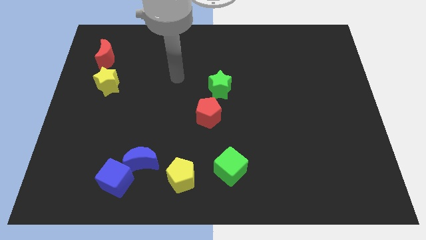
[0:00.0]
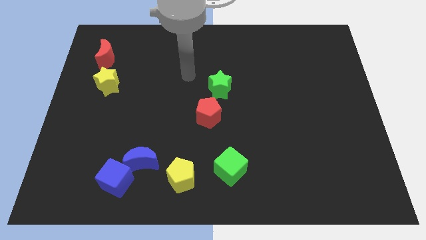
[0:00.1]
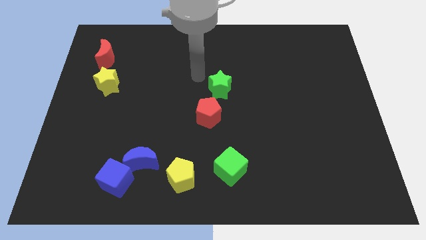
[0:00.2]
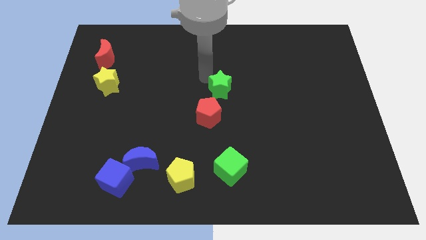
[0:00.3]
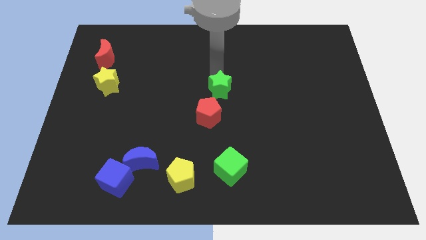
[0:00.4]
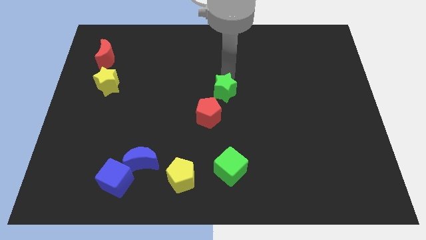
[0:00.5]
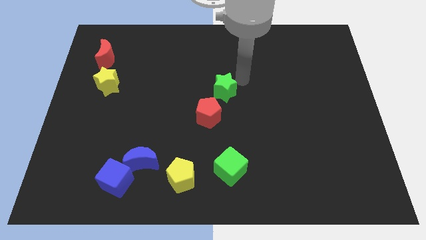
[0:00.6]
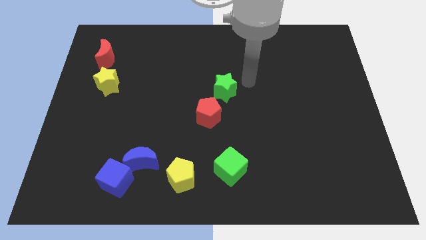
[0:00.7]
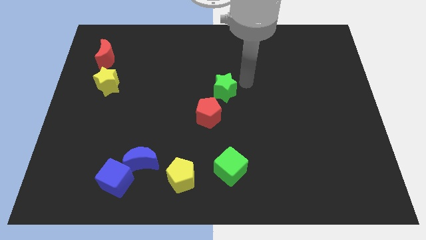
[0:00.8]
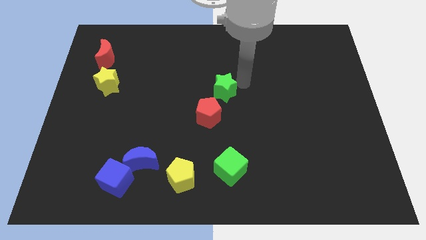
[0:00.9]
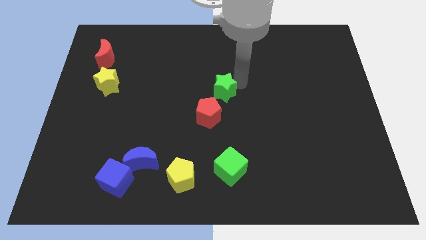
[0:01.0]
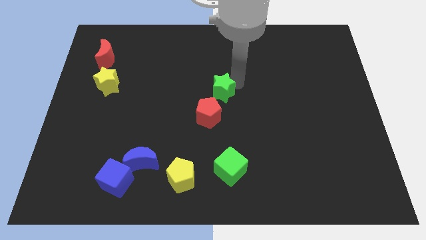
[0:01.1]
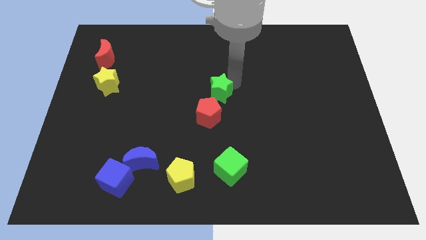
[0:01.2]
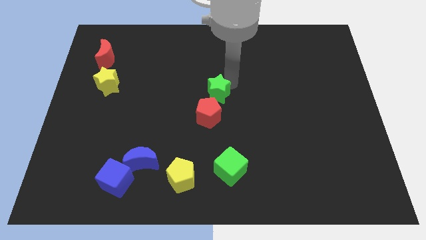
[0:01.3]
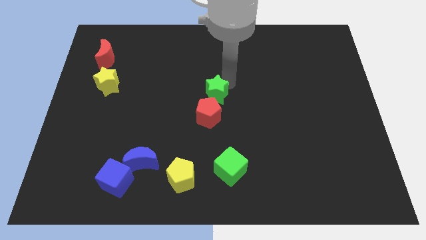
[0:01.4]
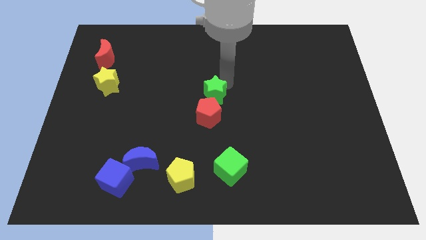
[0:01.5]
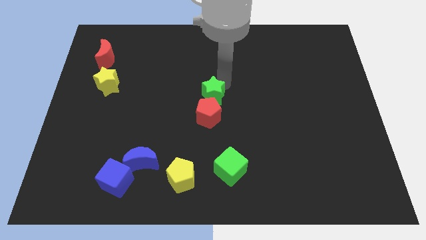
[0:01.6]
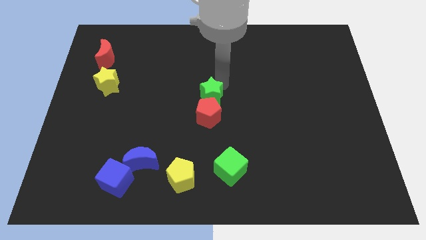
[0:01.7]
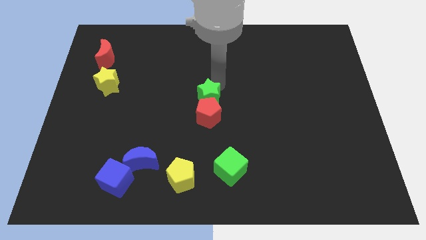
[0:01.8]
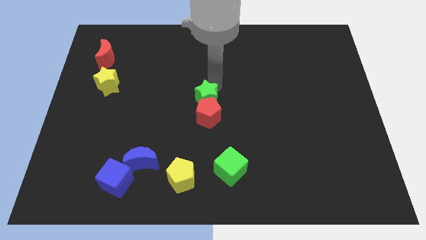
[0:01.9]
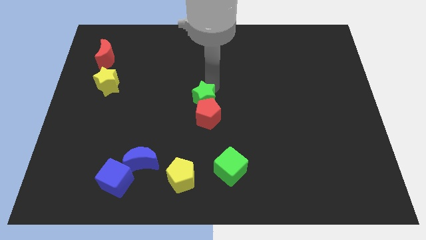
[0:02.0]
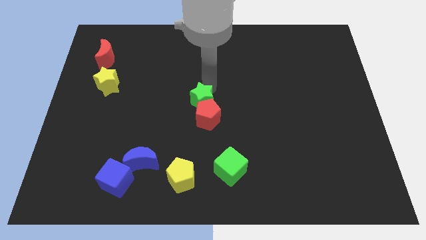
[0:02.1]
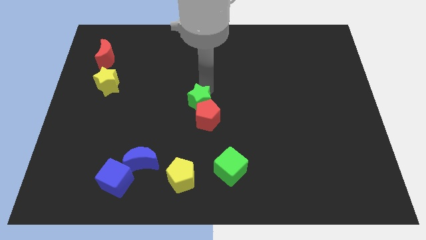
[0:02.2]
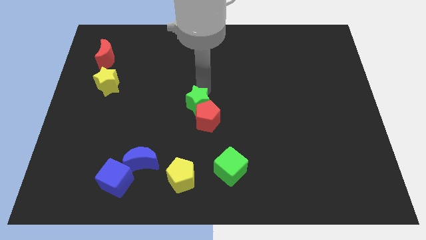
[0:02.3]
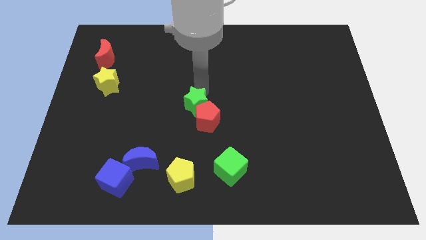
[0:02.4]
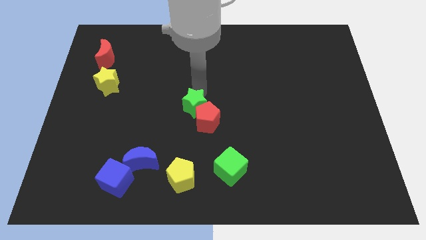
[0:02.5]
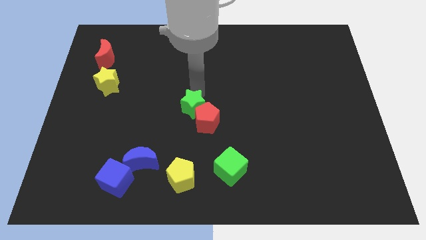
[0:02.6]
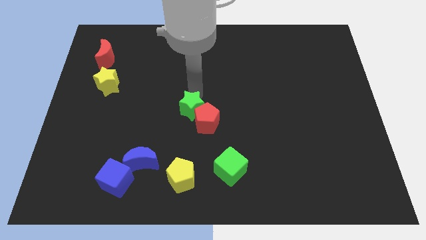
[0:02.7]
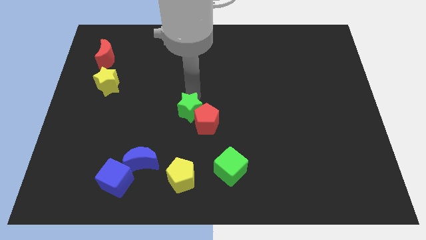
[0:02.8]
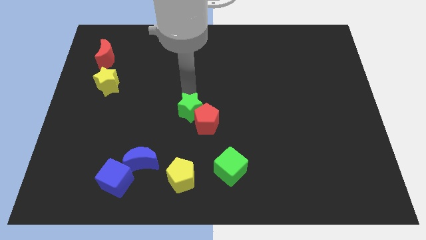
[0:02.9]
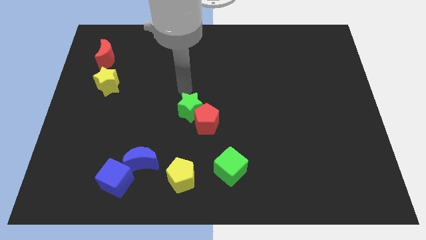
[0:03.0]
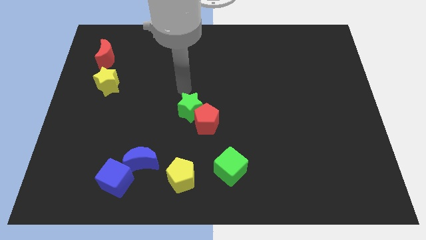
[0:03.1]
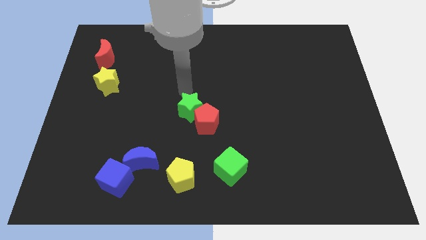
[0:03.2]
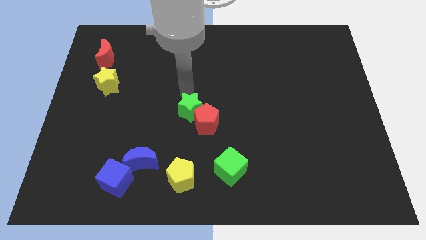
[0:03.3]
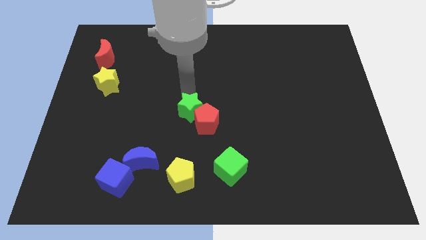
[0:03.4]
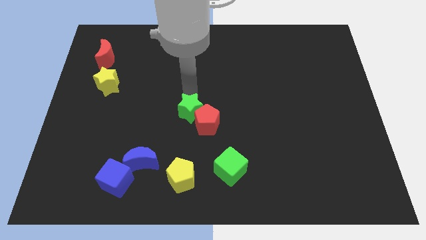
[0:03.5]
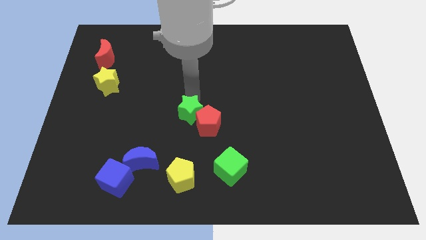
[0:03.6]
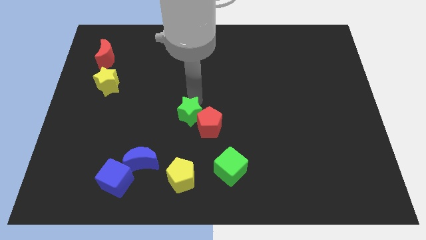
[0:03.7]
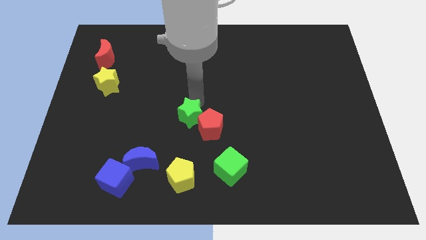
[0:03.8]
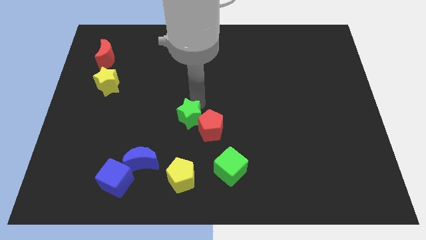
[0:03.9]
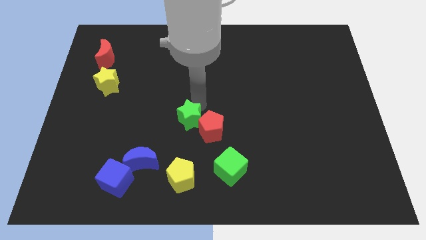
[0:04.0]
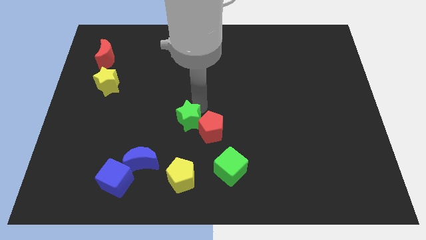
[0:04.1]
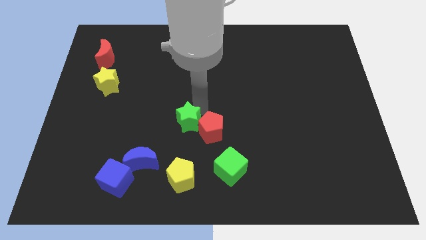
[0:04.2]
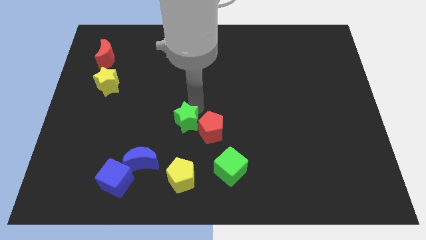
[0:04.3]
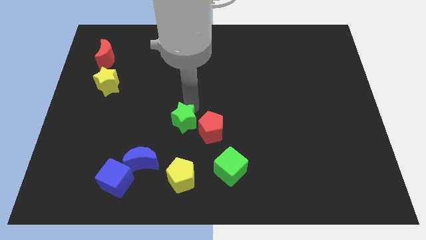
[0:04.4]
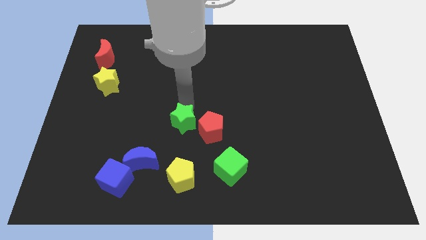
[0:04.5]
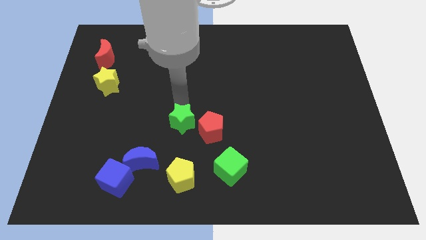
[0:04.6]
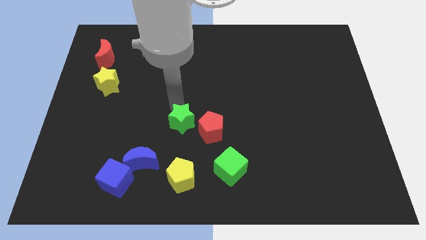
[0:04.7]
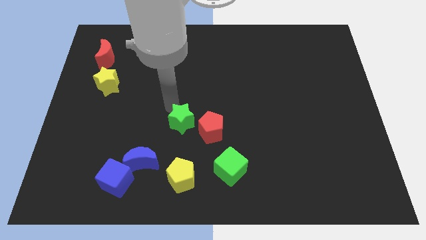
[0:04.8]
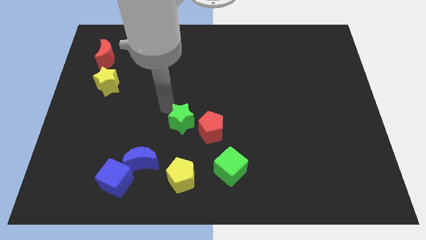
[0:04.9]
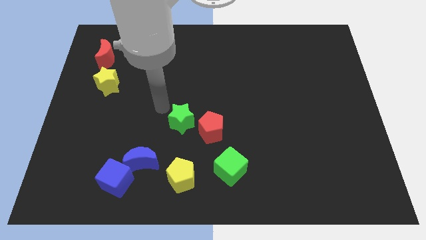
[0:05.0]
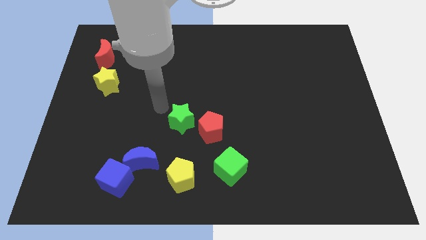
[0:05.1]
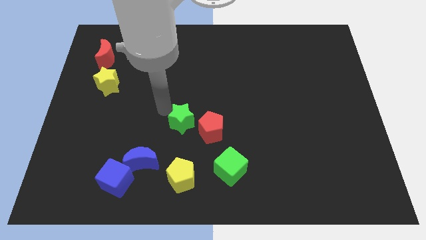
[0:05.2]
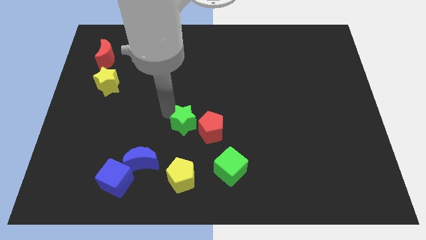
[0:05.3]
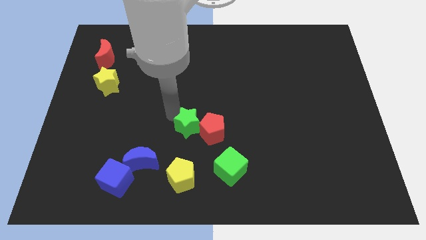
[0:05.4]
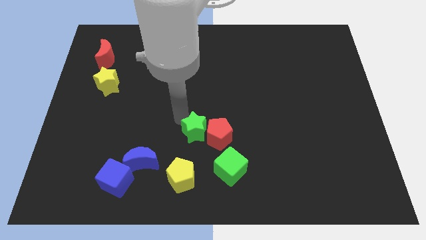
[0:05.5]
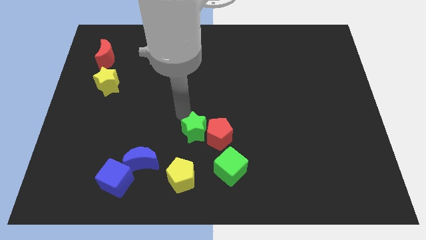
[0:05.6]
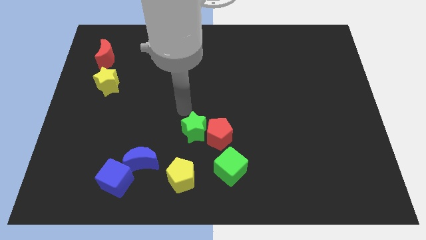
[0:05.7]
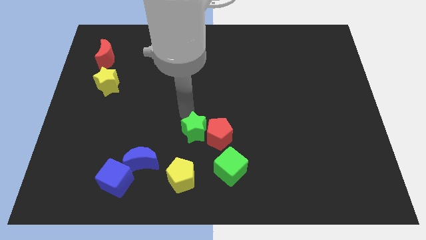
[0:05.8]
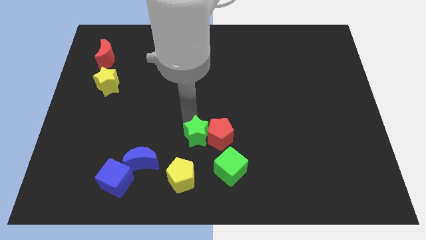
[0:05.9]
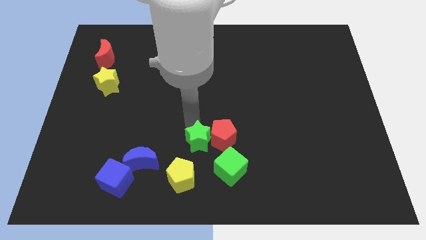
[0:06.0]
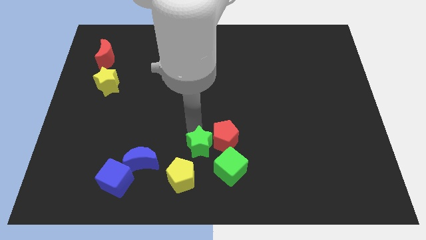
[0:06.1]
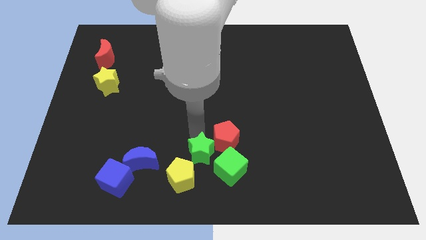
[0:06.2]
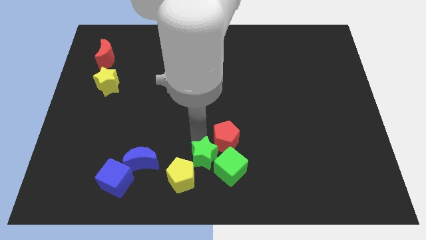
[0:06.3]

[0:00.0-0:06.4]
move the green star to the bottom side

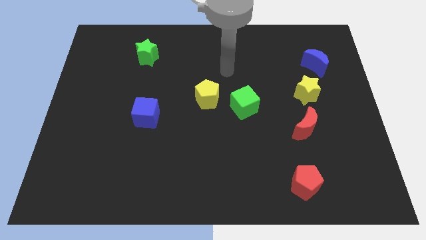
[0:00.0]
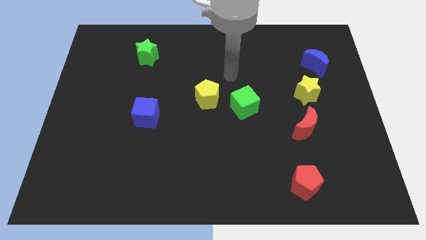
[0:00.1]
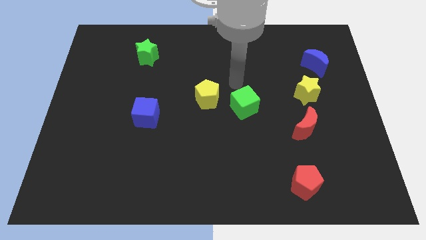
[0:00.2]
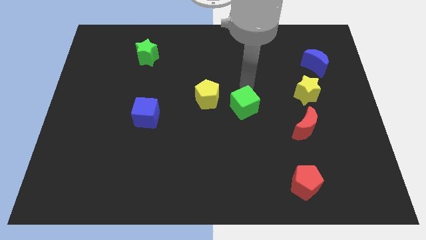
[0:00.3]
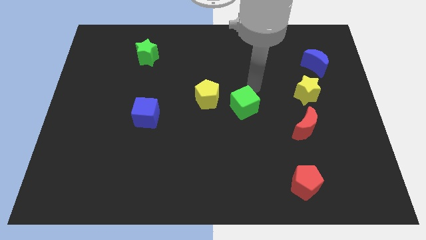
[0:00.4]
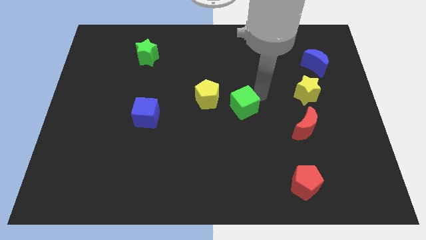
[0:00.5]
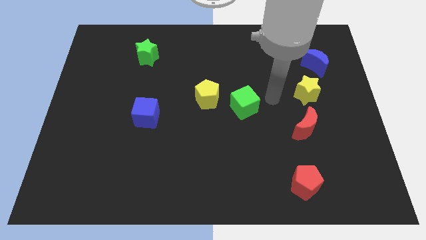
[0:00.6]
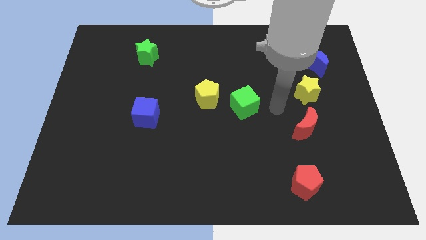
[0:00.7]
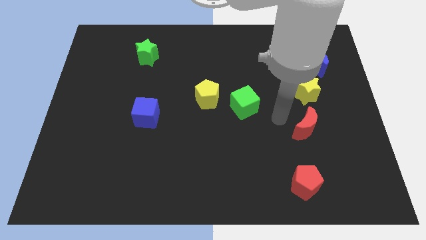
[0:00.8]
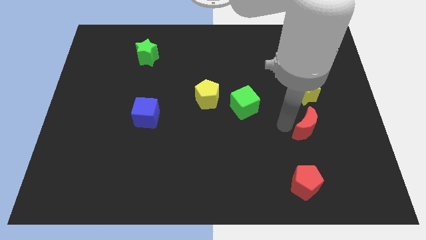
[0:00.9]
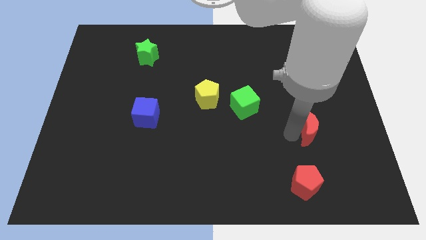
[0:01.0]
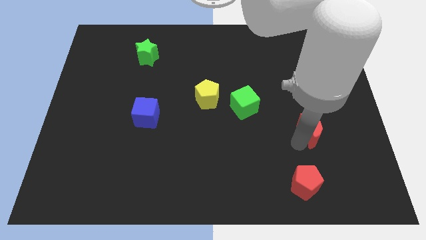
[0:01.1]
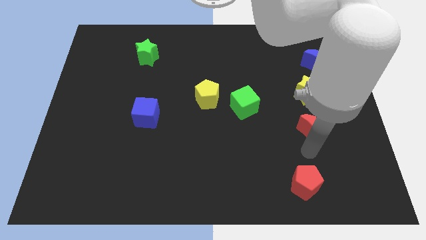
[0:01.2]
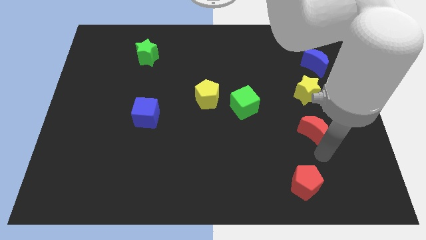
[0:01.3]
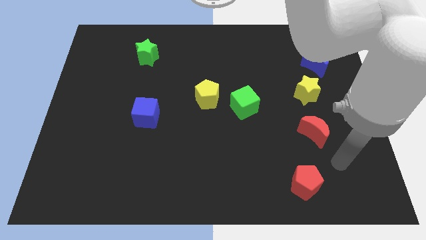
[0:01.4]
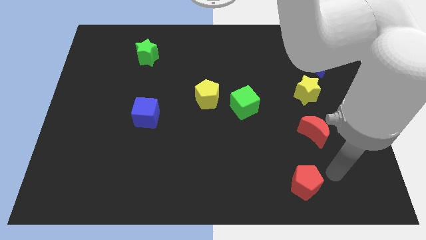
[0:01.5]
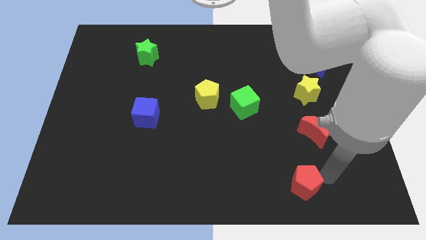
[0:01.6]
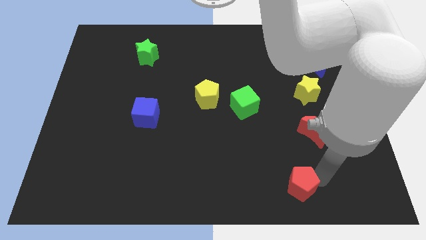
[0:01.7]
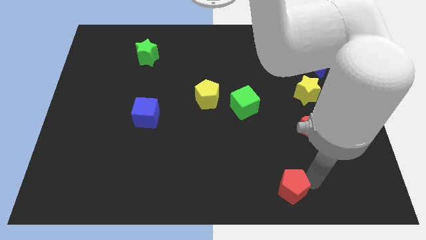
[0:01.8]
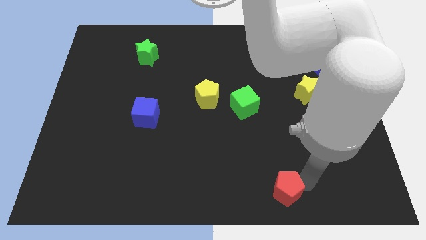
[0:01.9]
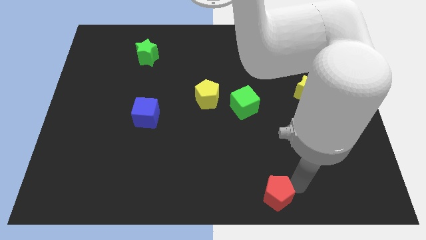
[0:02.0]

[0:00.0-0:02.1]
push the red pentagon to the bottom side
